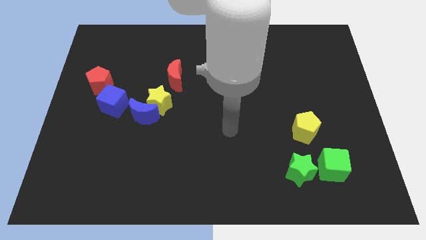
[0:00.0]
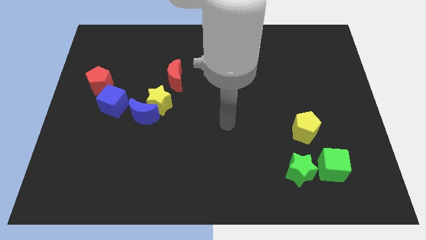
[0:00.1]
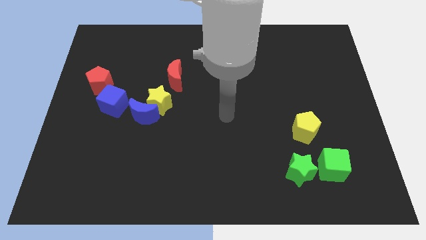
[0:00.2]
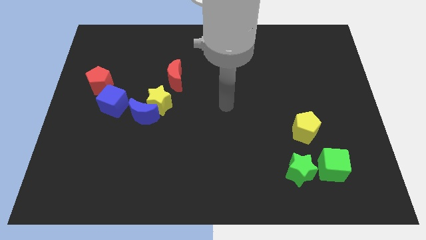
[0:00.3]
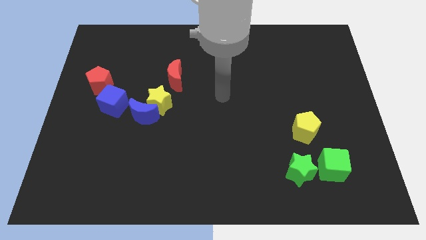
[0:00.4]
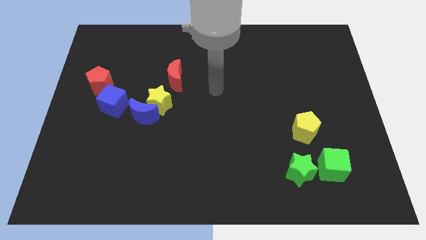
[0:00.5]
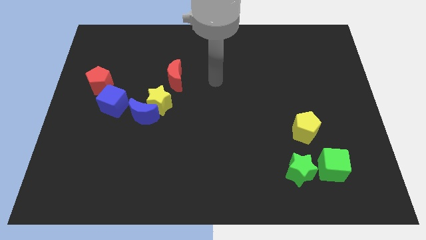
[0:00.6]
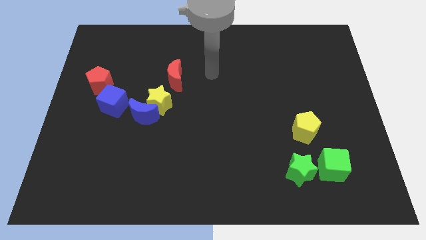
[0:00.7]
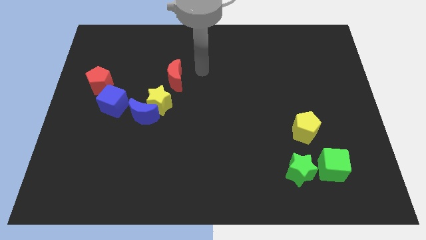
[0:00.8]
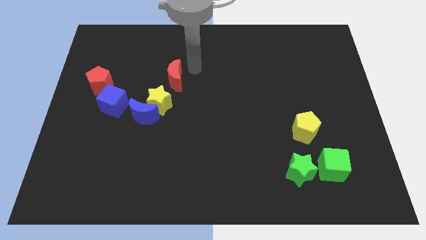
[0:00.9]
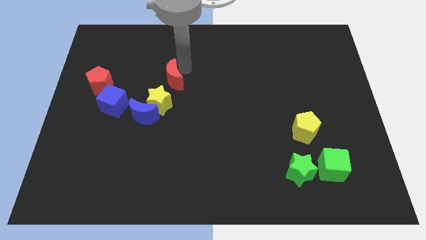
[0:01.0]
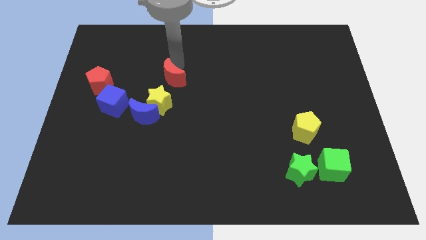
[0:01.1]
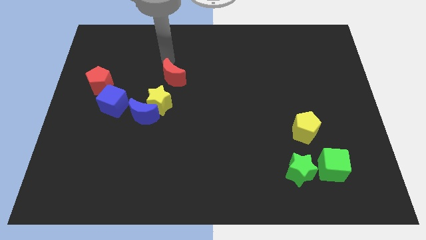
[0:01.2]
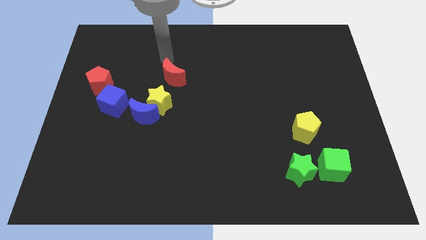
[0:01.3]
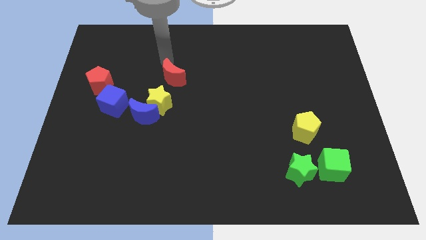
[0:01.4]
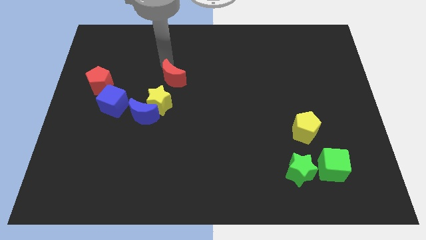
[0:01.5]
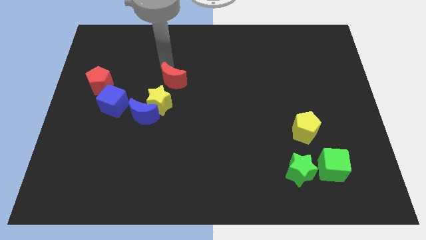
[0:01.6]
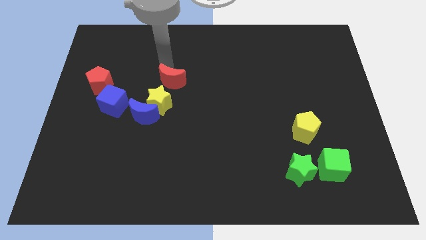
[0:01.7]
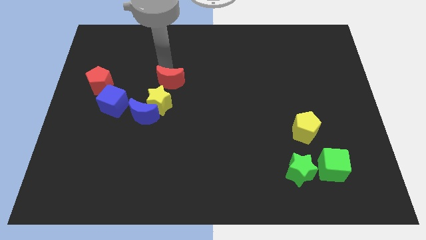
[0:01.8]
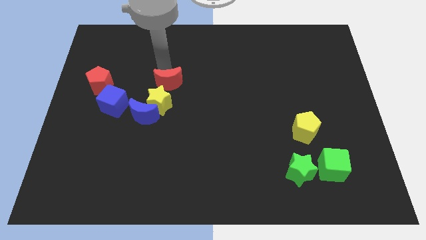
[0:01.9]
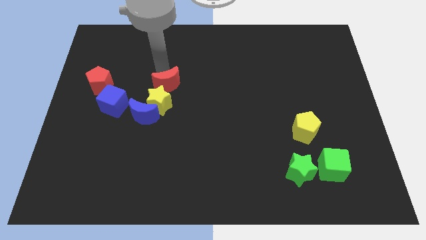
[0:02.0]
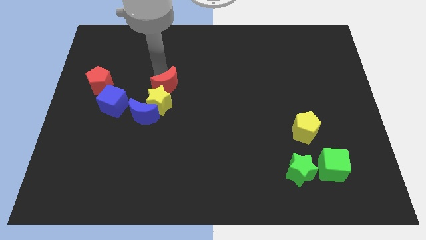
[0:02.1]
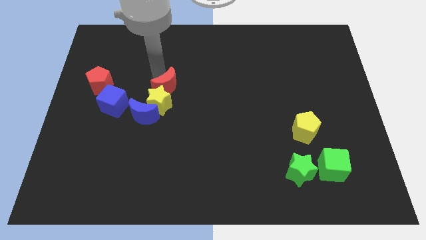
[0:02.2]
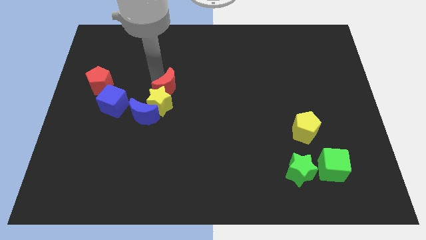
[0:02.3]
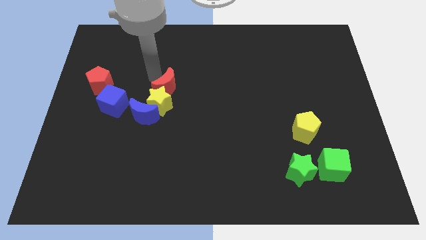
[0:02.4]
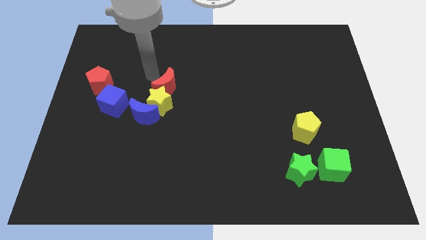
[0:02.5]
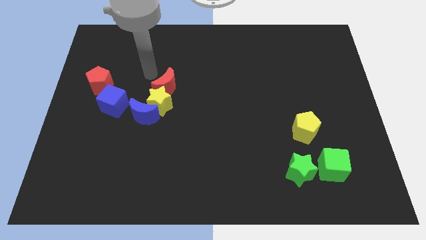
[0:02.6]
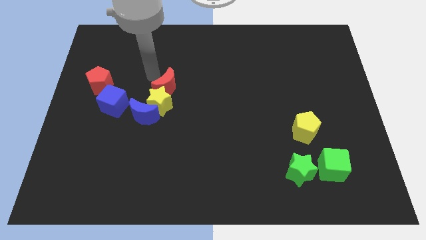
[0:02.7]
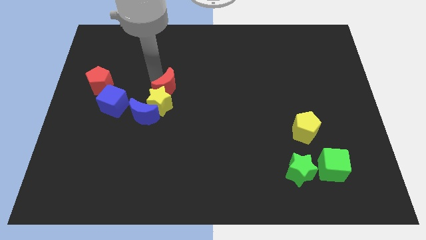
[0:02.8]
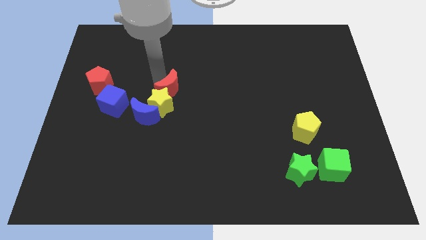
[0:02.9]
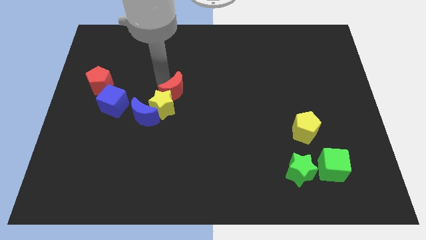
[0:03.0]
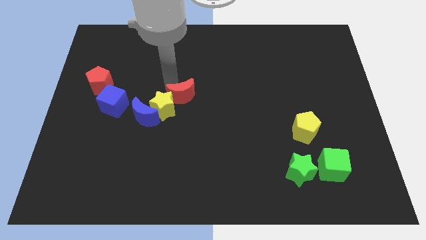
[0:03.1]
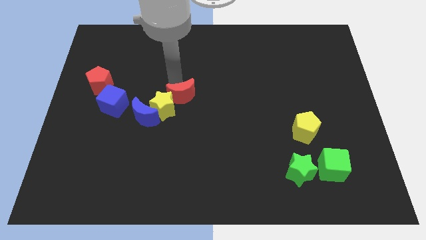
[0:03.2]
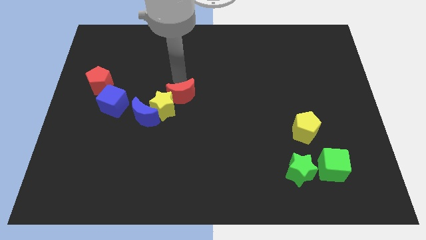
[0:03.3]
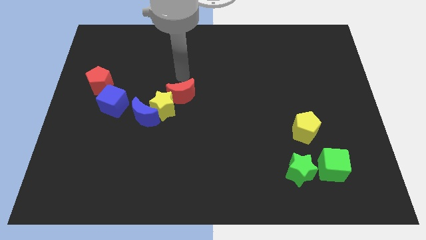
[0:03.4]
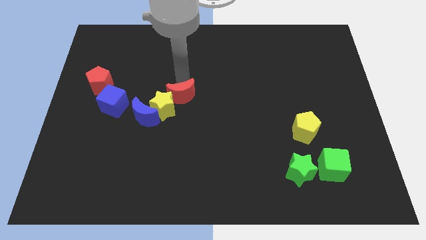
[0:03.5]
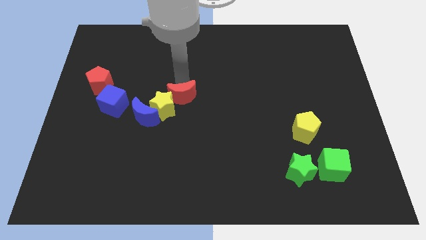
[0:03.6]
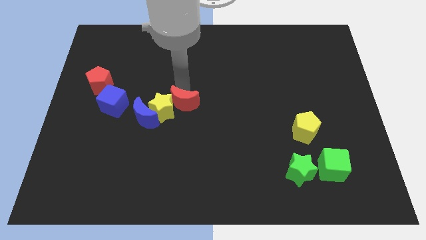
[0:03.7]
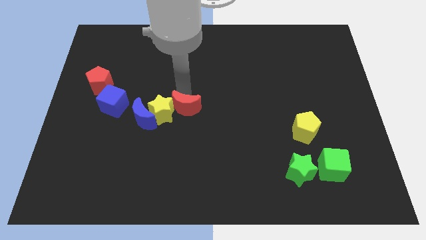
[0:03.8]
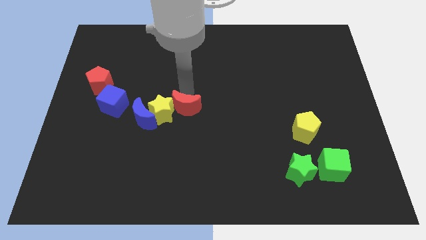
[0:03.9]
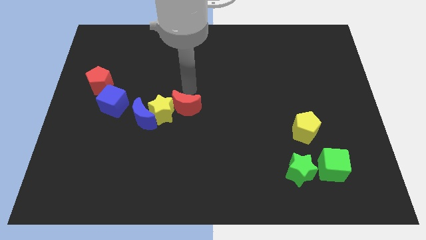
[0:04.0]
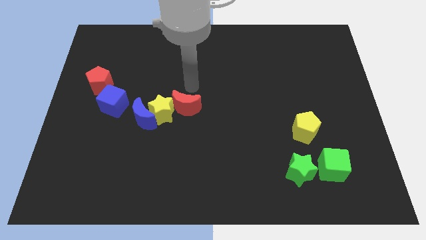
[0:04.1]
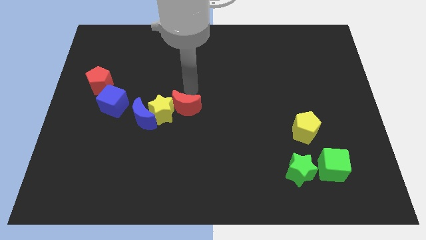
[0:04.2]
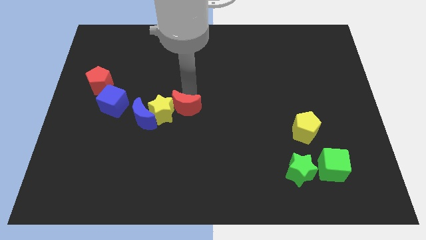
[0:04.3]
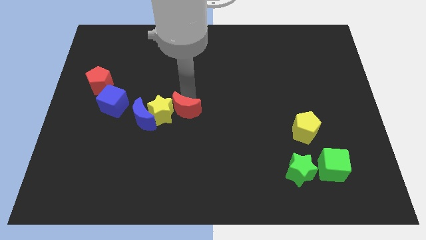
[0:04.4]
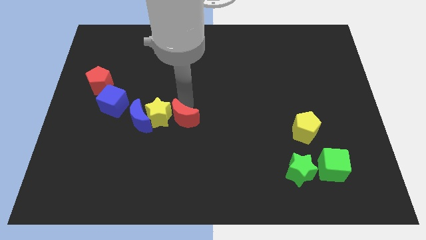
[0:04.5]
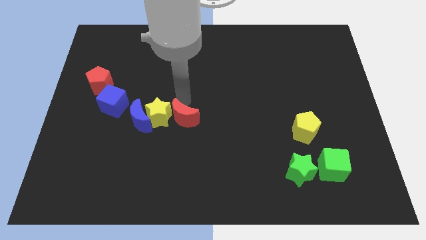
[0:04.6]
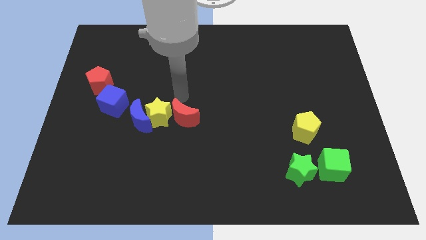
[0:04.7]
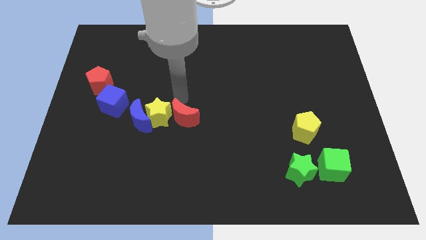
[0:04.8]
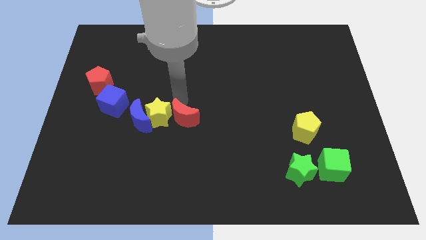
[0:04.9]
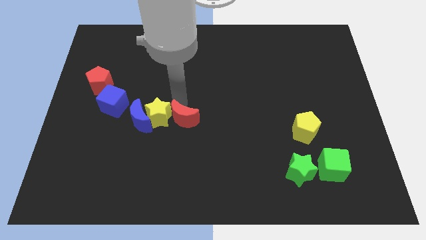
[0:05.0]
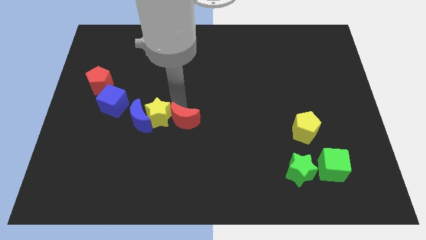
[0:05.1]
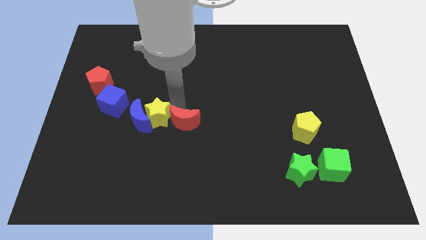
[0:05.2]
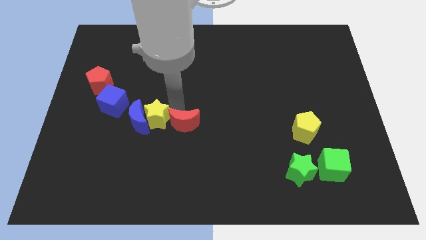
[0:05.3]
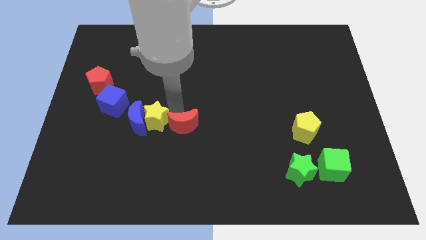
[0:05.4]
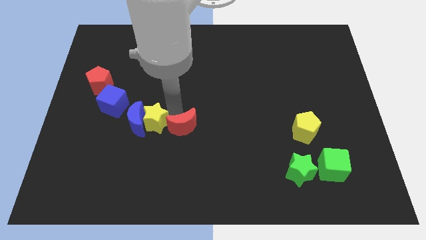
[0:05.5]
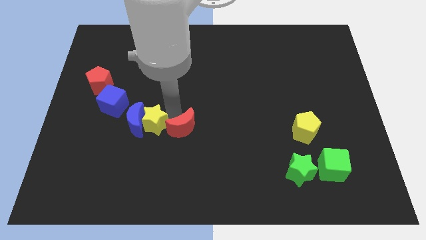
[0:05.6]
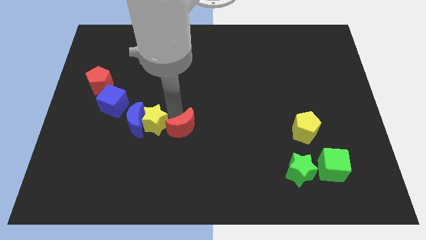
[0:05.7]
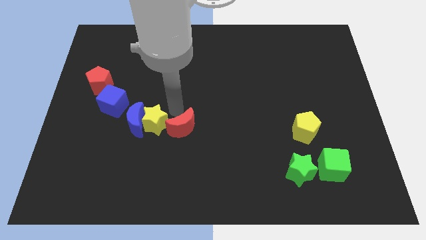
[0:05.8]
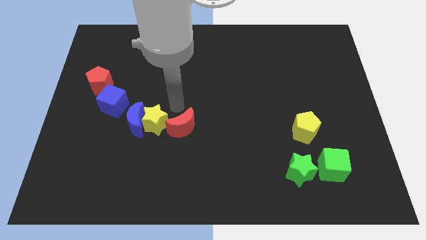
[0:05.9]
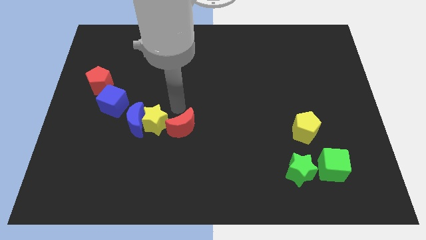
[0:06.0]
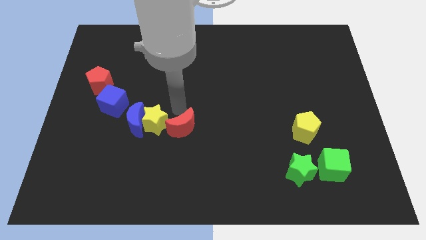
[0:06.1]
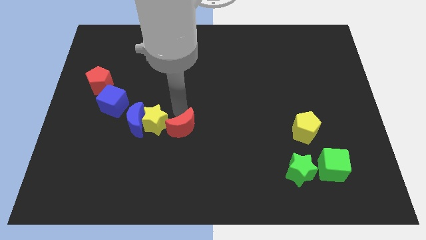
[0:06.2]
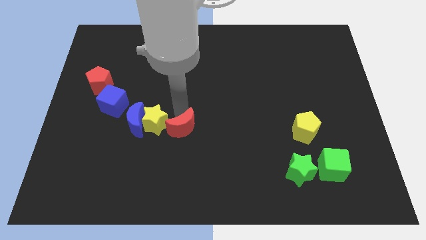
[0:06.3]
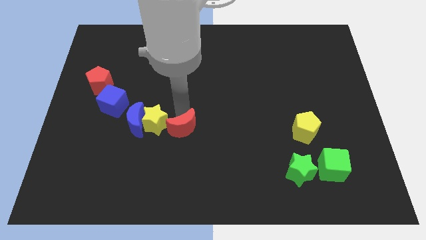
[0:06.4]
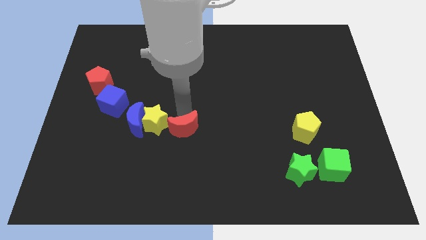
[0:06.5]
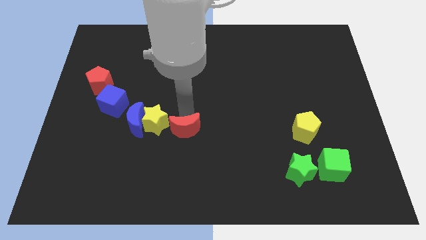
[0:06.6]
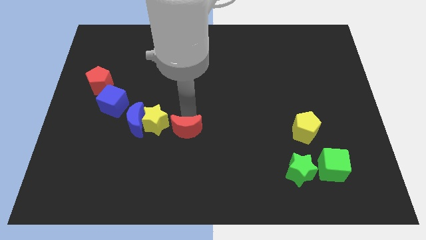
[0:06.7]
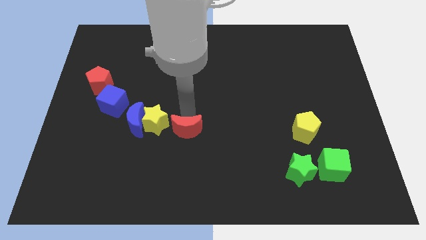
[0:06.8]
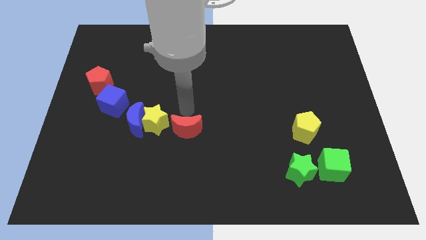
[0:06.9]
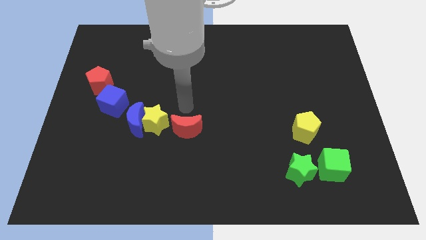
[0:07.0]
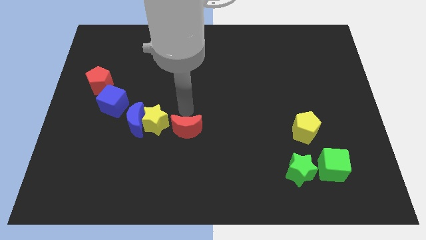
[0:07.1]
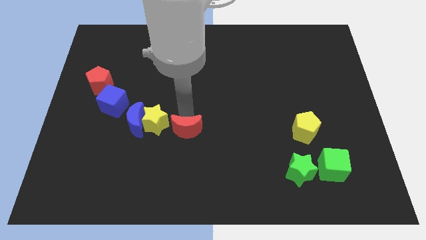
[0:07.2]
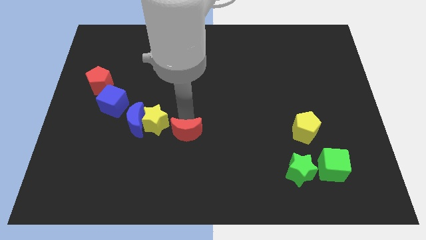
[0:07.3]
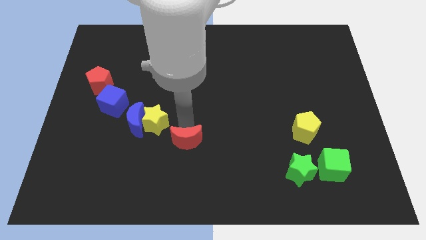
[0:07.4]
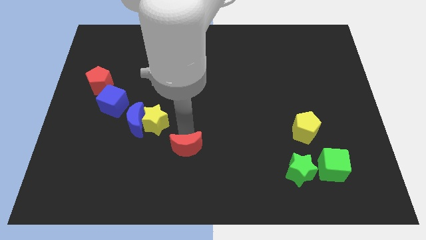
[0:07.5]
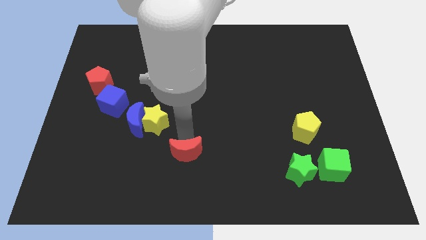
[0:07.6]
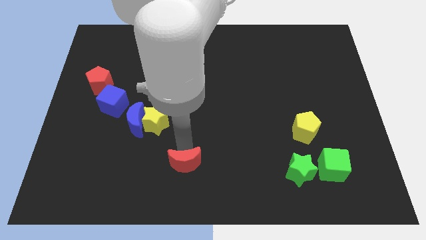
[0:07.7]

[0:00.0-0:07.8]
move the red moon to the bottom side
